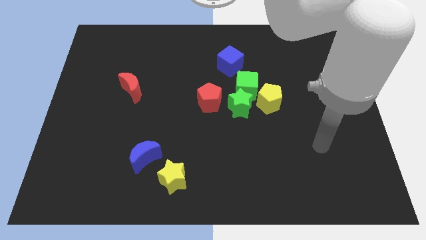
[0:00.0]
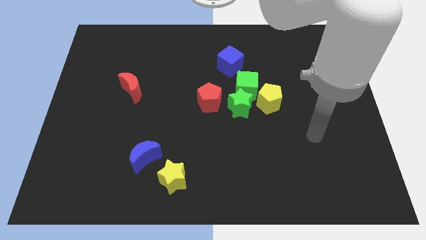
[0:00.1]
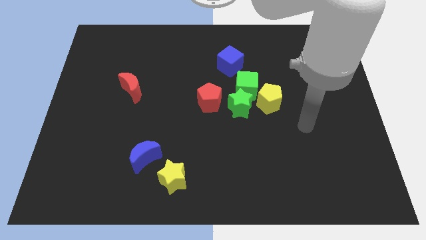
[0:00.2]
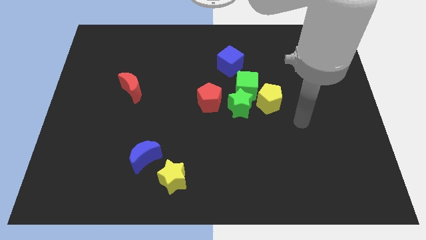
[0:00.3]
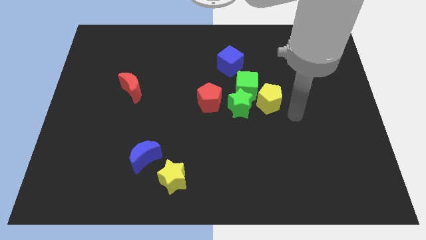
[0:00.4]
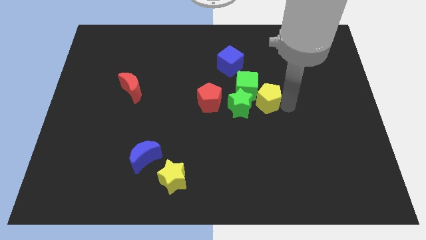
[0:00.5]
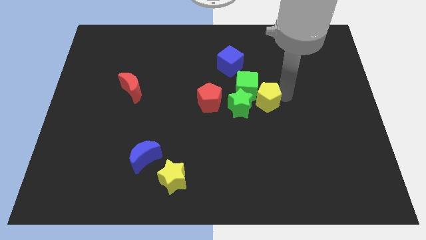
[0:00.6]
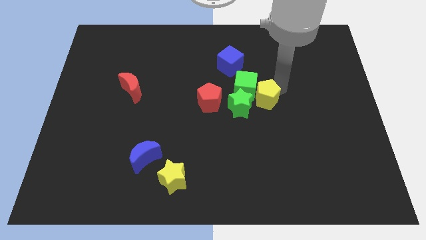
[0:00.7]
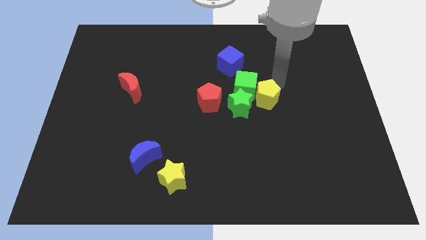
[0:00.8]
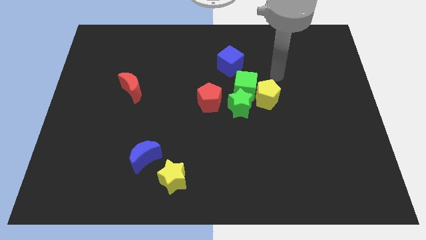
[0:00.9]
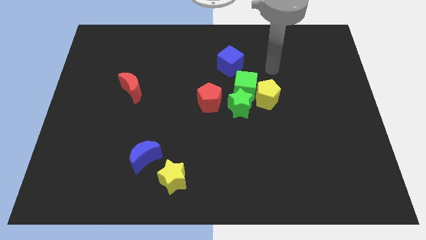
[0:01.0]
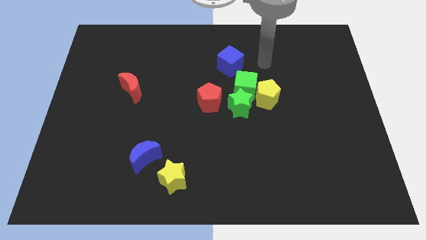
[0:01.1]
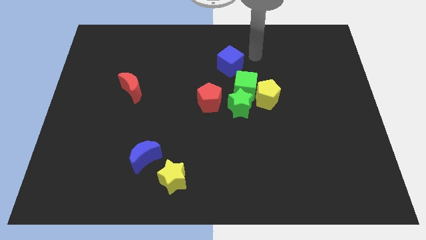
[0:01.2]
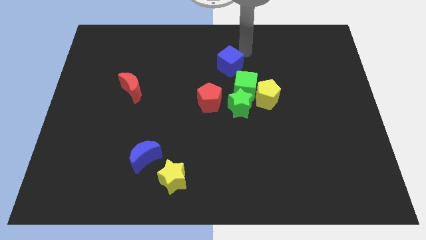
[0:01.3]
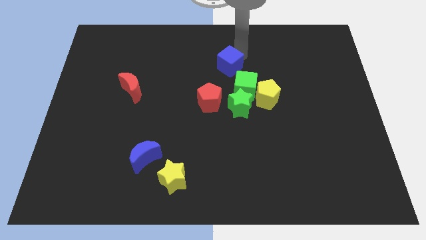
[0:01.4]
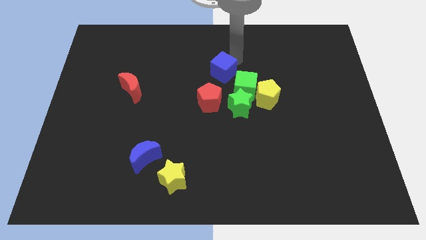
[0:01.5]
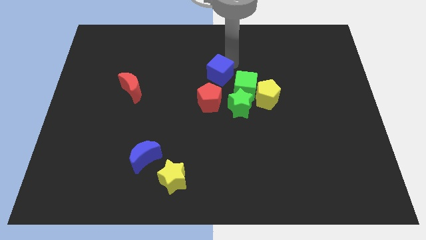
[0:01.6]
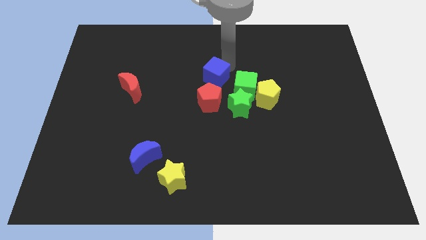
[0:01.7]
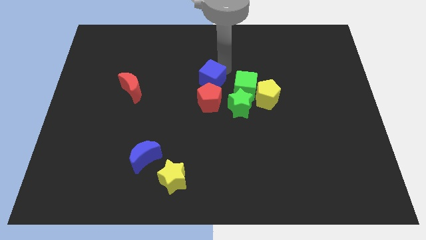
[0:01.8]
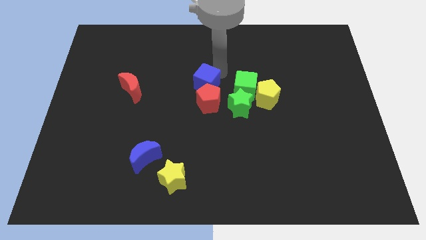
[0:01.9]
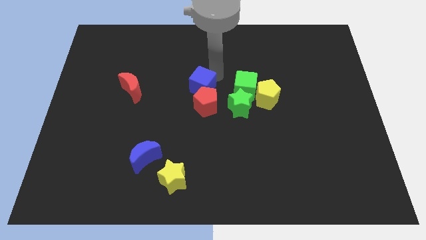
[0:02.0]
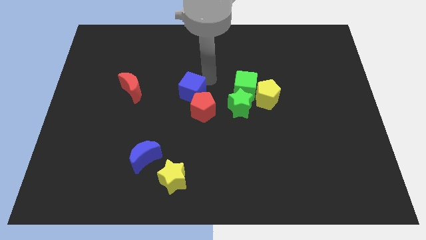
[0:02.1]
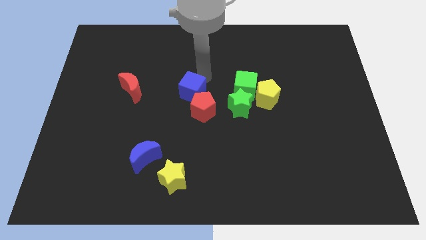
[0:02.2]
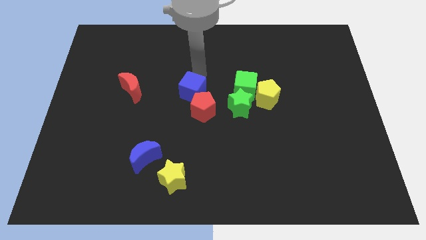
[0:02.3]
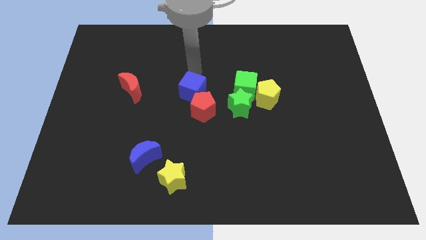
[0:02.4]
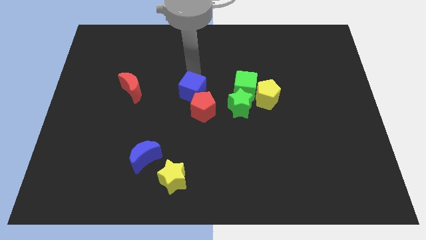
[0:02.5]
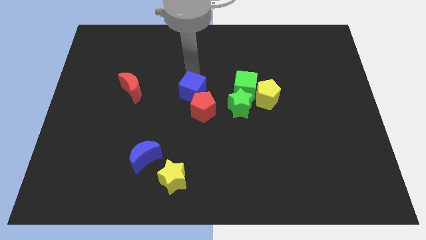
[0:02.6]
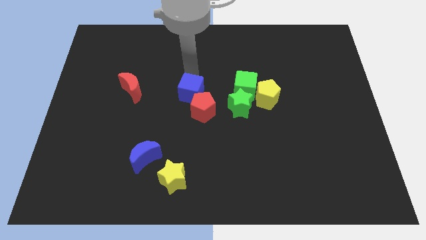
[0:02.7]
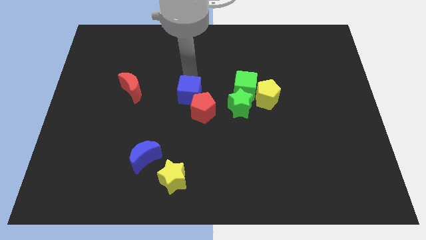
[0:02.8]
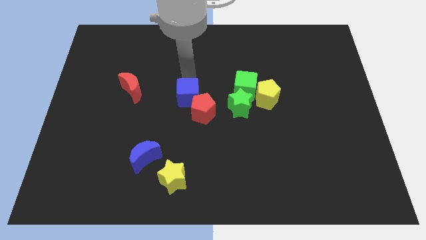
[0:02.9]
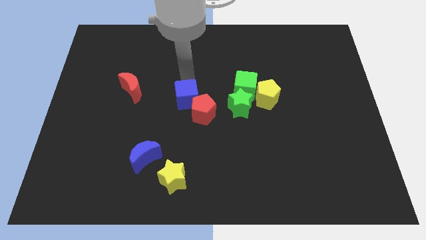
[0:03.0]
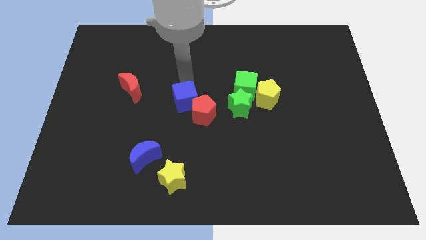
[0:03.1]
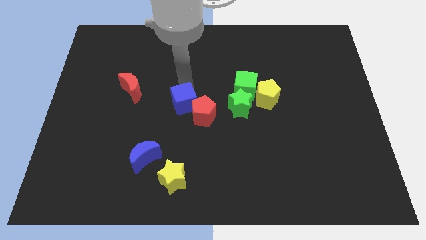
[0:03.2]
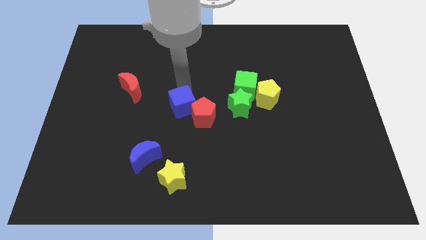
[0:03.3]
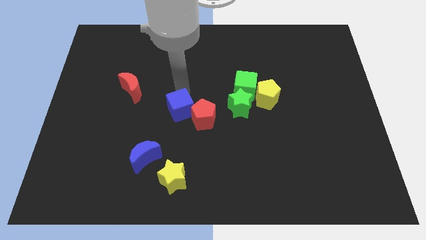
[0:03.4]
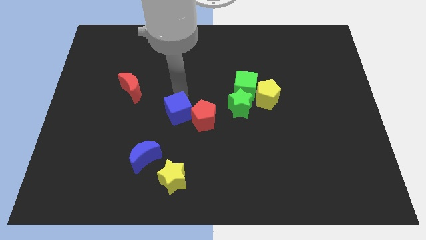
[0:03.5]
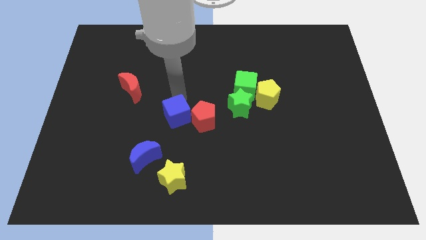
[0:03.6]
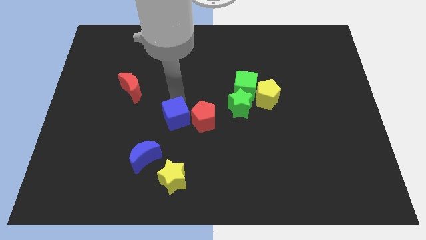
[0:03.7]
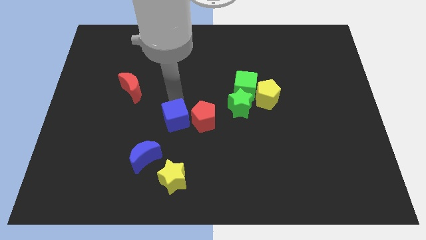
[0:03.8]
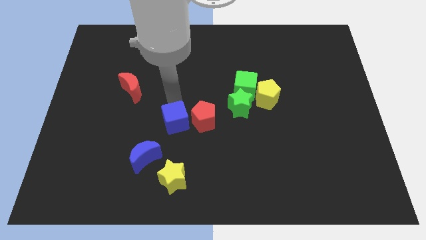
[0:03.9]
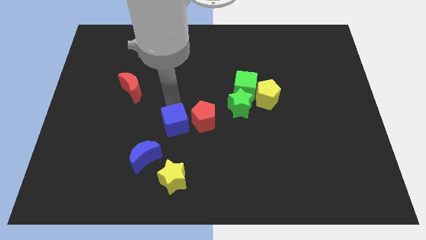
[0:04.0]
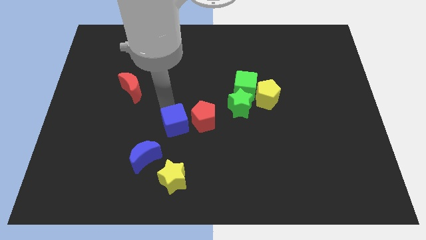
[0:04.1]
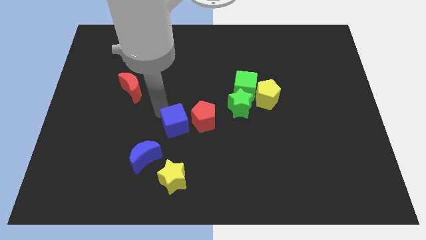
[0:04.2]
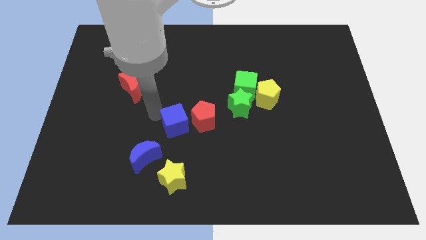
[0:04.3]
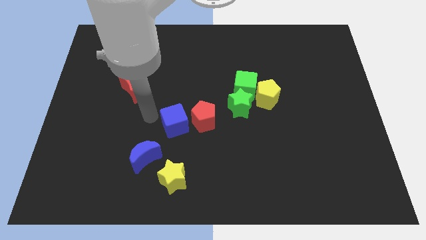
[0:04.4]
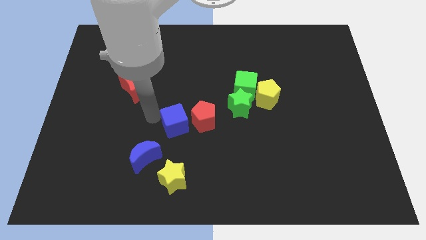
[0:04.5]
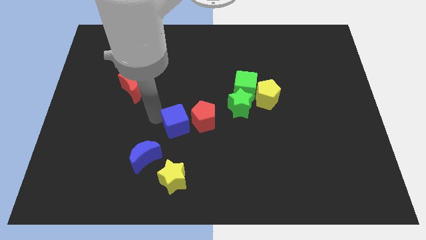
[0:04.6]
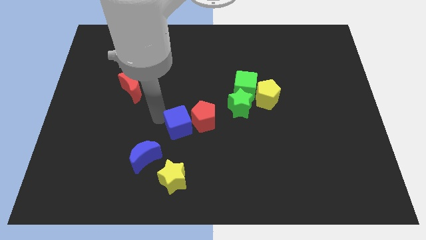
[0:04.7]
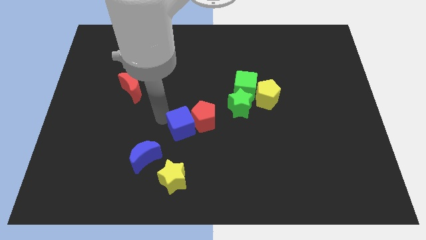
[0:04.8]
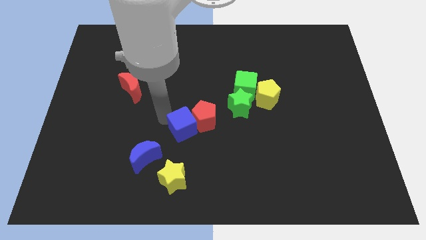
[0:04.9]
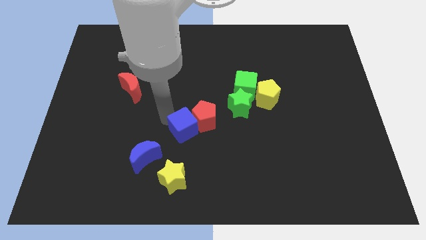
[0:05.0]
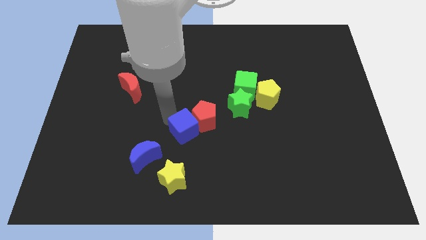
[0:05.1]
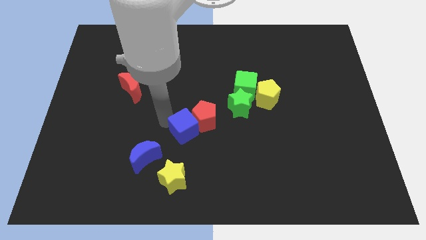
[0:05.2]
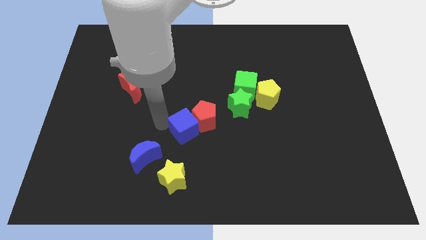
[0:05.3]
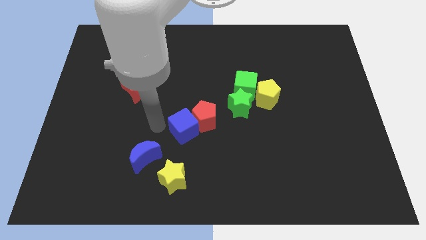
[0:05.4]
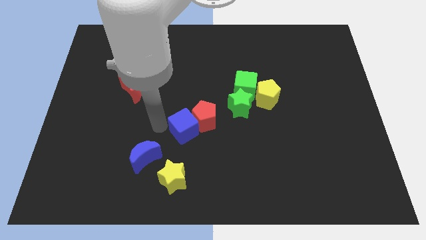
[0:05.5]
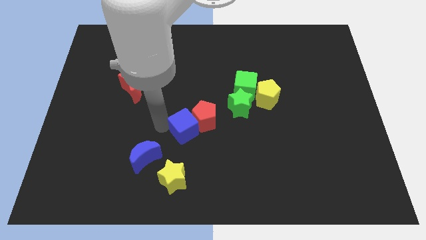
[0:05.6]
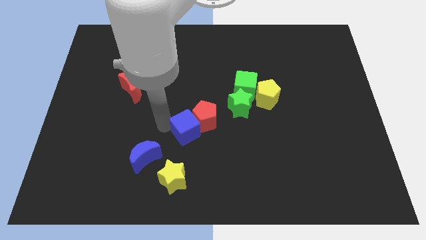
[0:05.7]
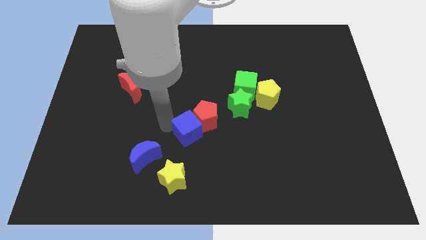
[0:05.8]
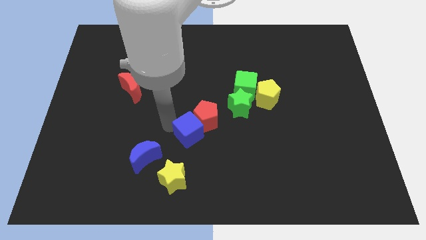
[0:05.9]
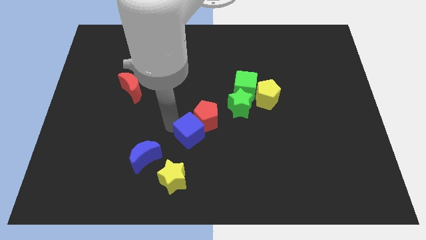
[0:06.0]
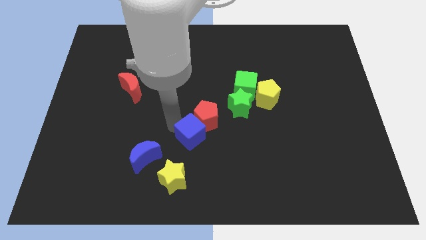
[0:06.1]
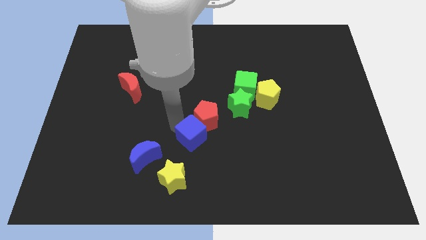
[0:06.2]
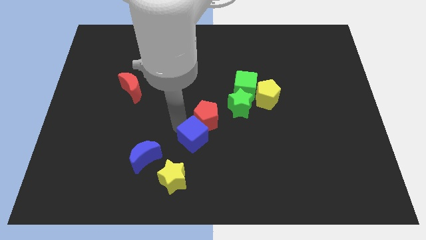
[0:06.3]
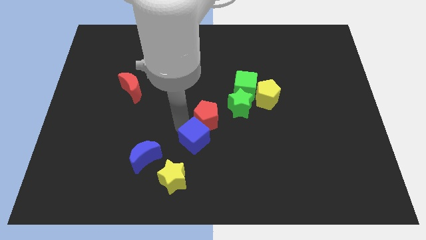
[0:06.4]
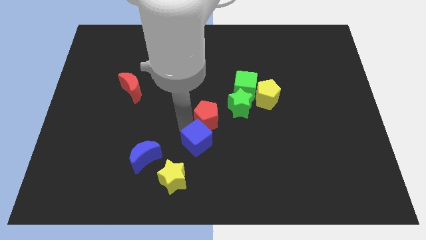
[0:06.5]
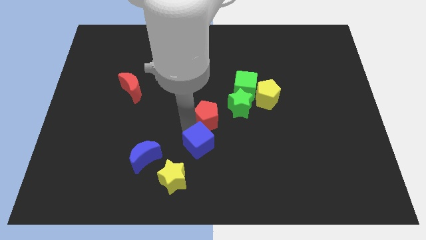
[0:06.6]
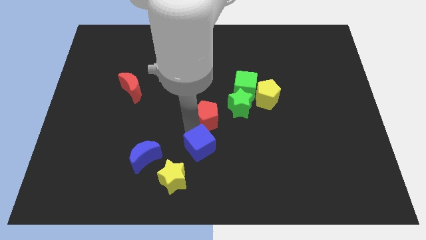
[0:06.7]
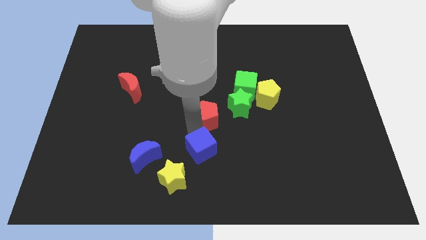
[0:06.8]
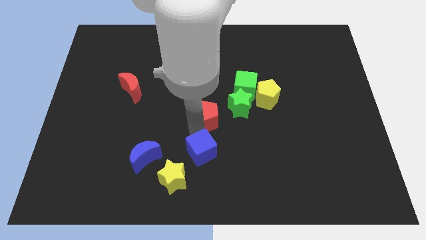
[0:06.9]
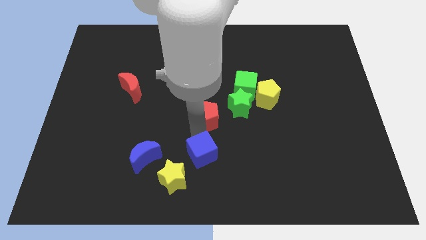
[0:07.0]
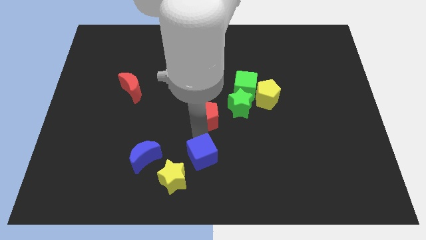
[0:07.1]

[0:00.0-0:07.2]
slide the blue cube to the bottom
